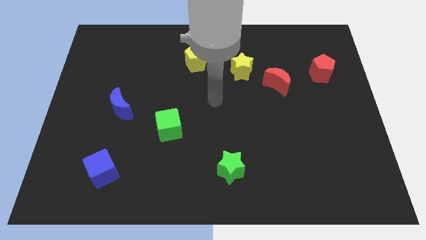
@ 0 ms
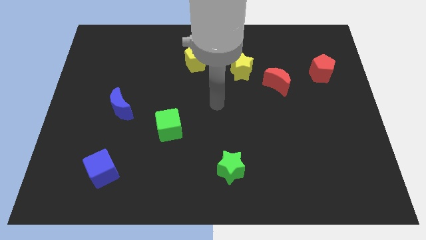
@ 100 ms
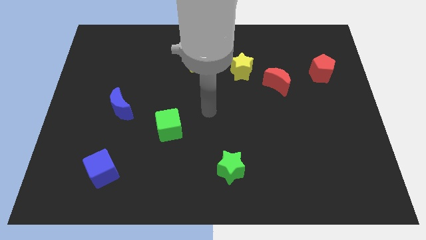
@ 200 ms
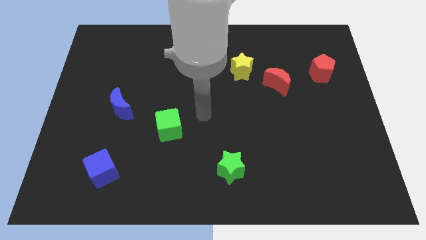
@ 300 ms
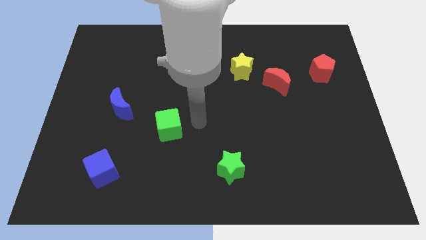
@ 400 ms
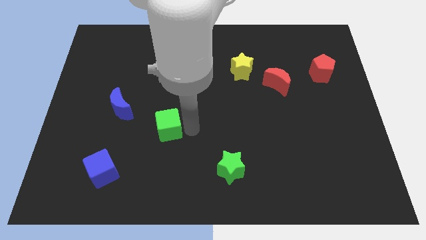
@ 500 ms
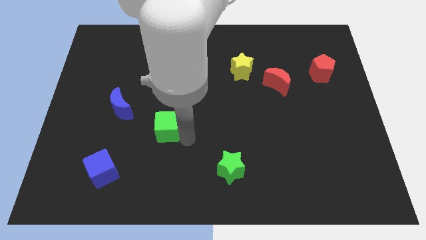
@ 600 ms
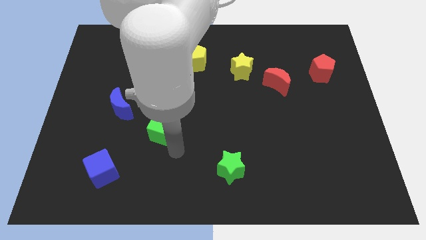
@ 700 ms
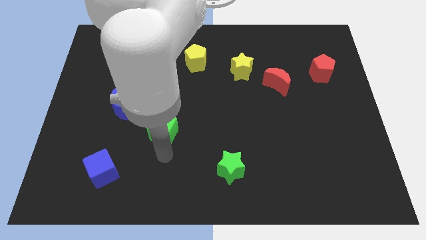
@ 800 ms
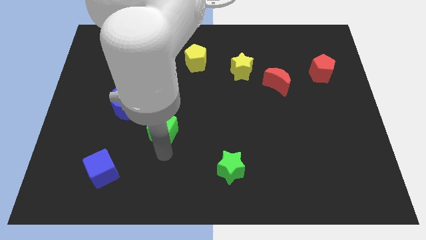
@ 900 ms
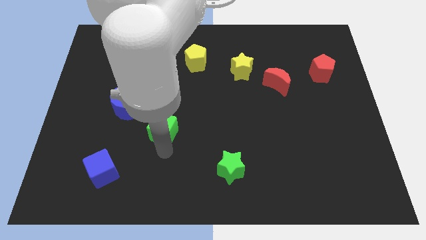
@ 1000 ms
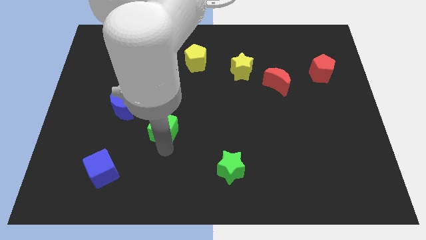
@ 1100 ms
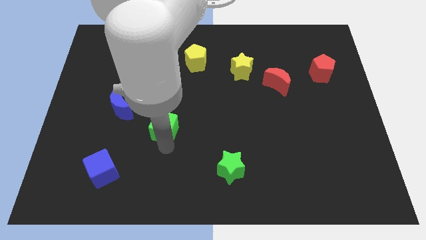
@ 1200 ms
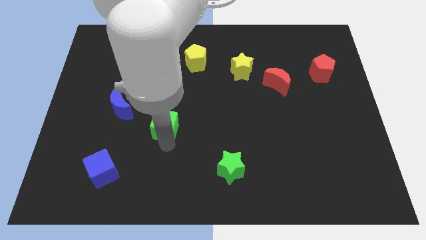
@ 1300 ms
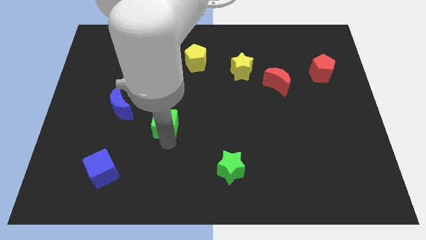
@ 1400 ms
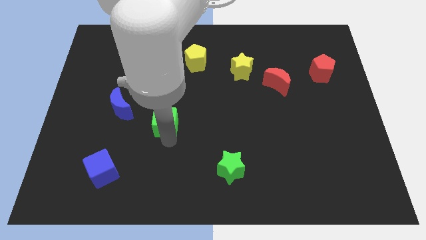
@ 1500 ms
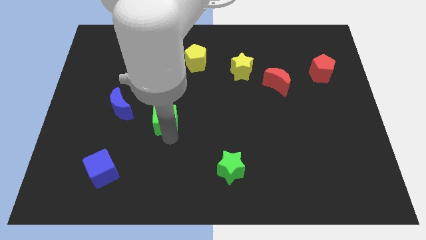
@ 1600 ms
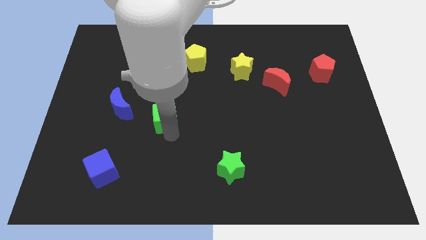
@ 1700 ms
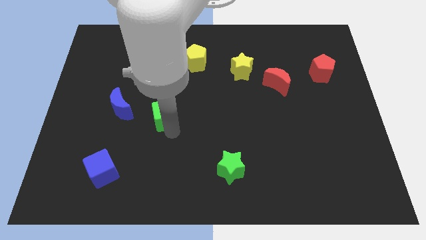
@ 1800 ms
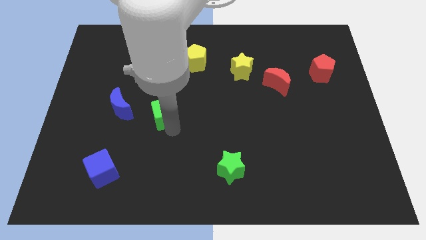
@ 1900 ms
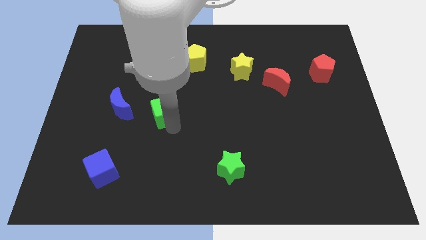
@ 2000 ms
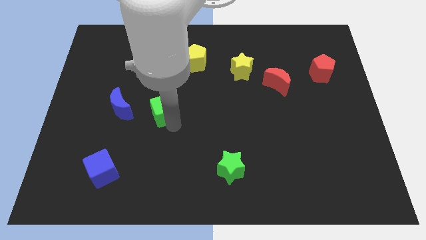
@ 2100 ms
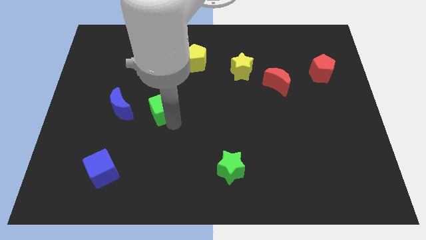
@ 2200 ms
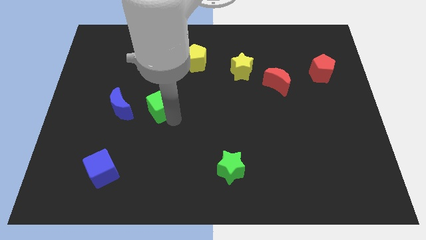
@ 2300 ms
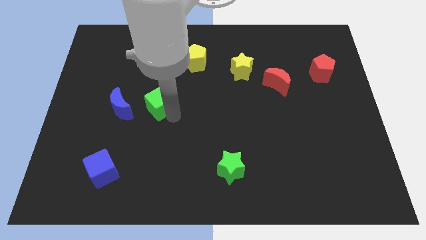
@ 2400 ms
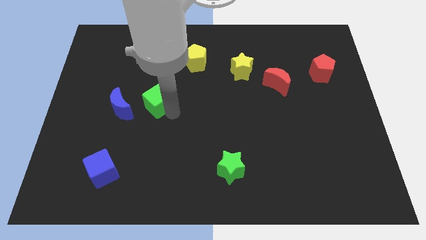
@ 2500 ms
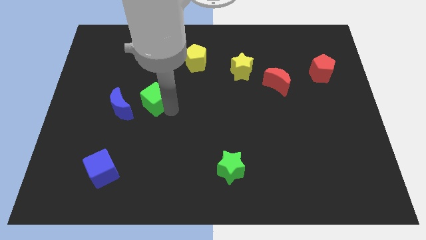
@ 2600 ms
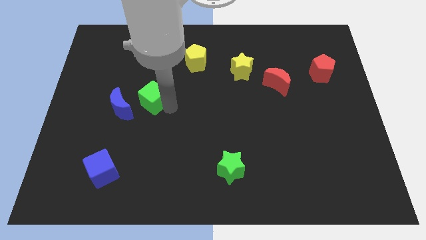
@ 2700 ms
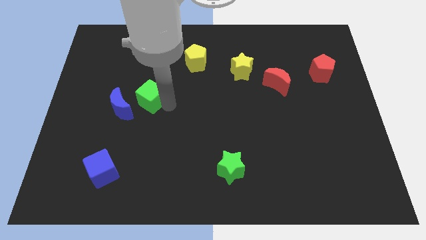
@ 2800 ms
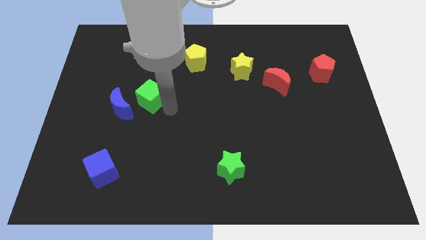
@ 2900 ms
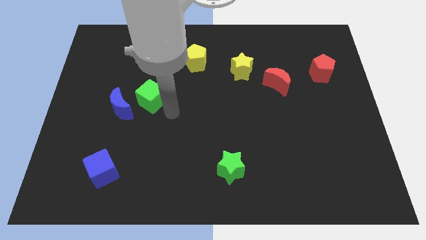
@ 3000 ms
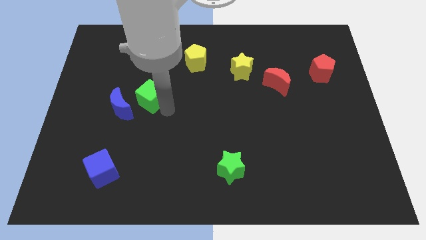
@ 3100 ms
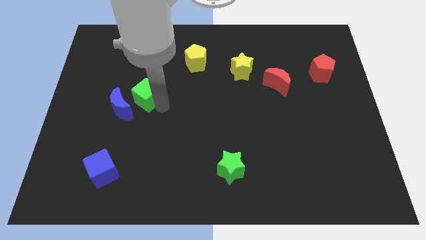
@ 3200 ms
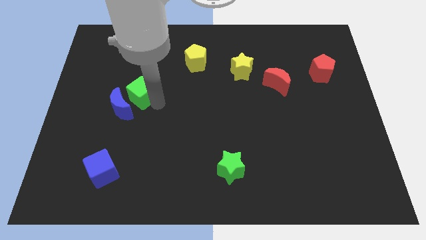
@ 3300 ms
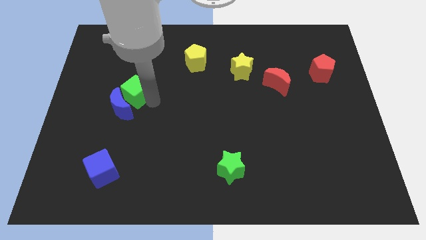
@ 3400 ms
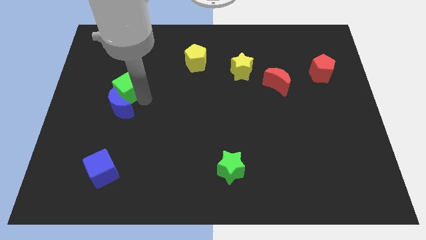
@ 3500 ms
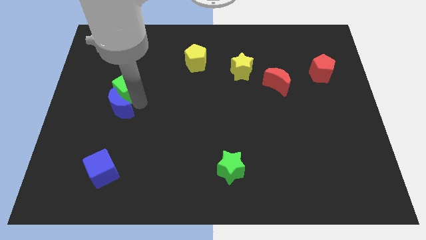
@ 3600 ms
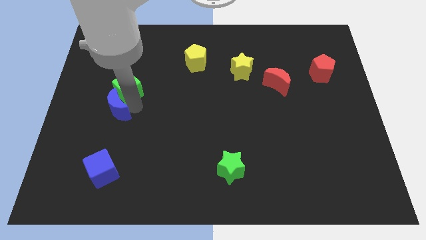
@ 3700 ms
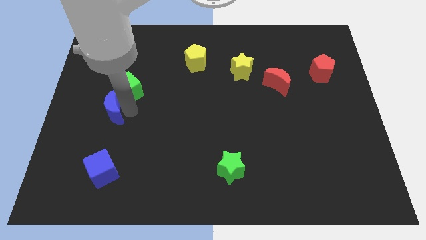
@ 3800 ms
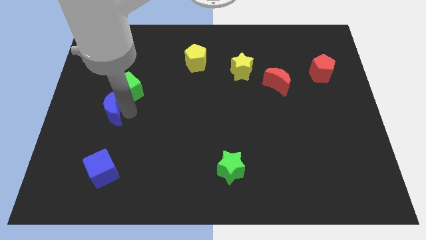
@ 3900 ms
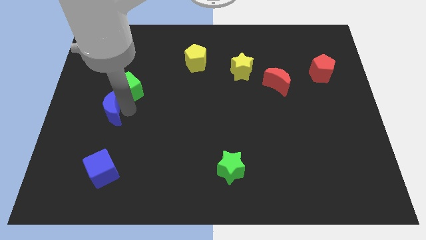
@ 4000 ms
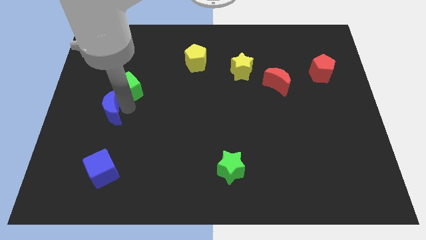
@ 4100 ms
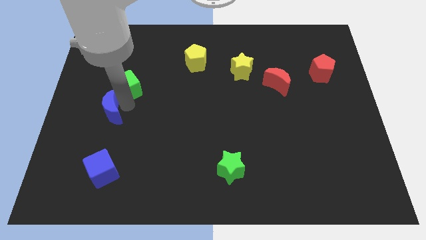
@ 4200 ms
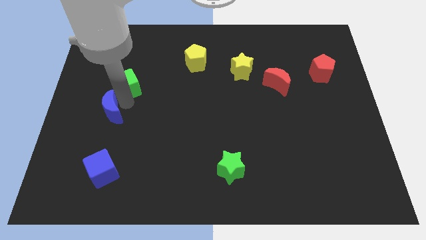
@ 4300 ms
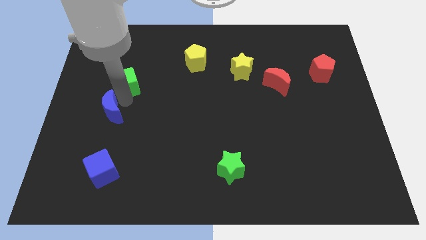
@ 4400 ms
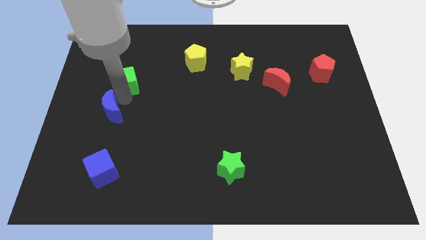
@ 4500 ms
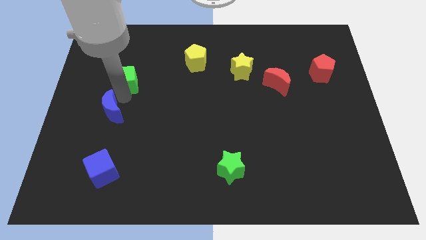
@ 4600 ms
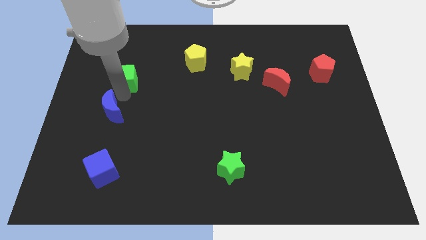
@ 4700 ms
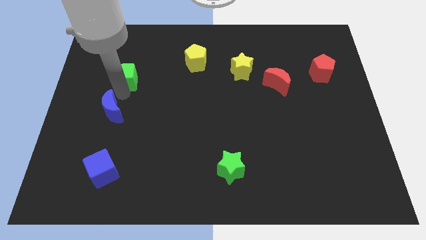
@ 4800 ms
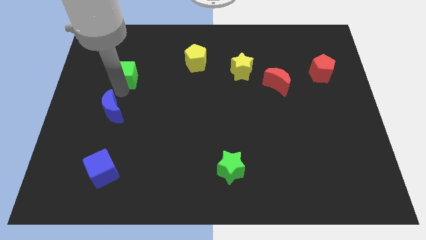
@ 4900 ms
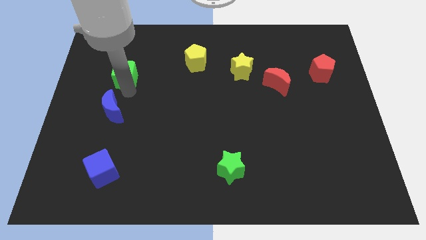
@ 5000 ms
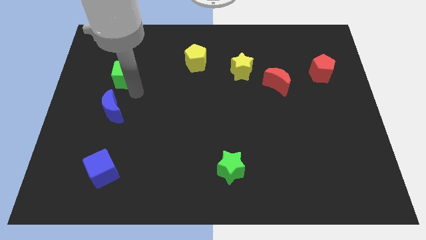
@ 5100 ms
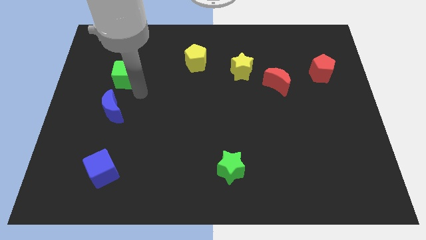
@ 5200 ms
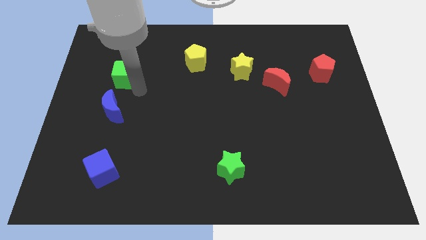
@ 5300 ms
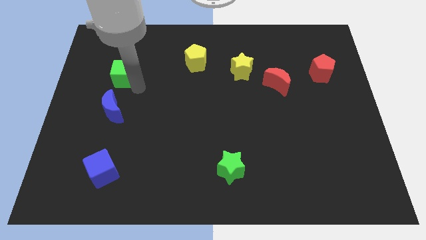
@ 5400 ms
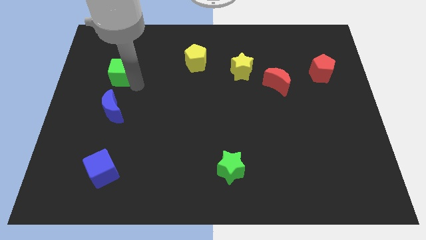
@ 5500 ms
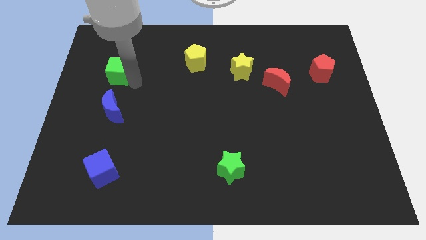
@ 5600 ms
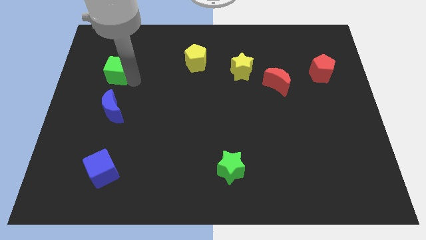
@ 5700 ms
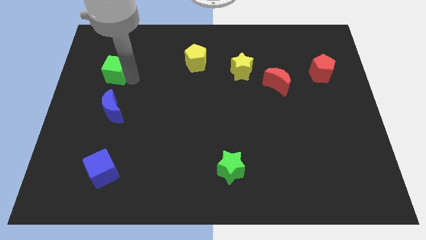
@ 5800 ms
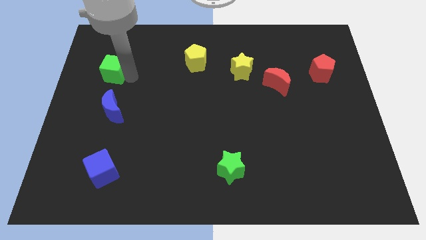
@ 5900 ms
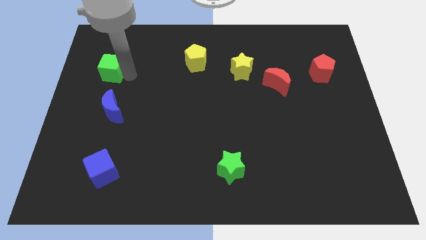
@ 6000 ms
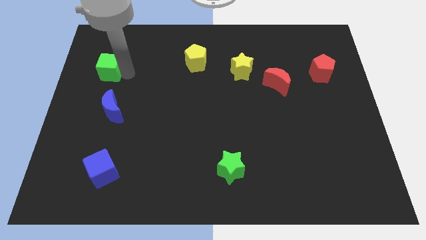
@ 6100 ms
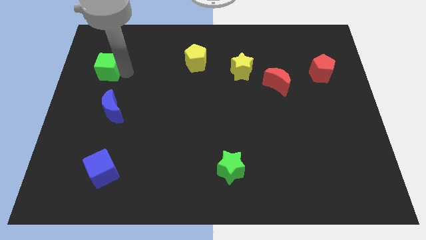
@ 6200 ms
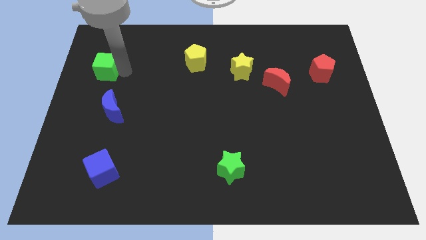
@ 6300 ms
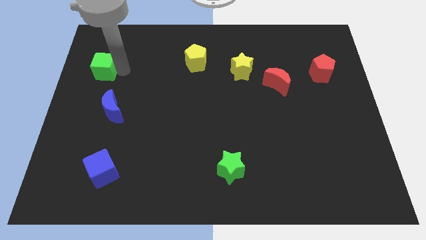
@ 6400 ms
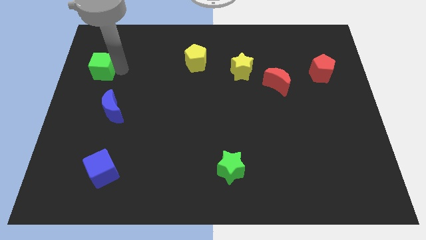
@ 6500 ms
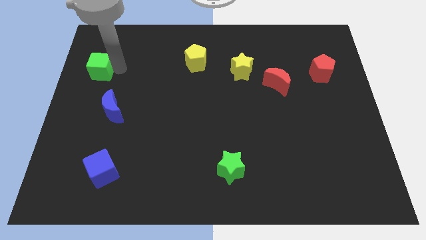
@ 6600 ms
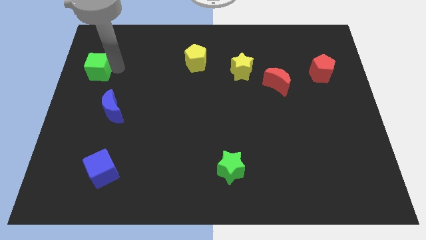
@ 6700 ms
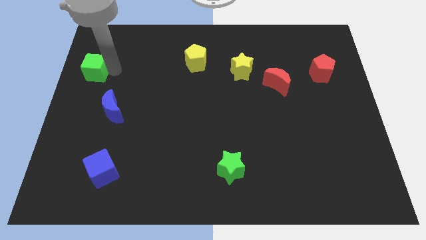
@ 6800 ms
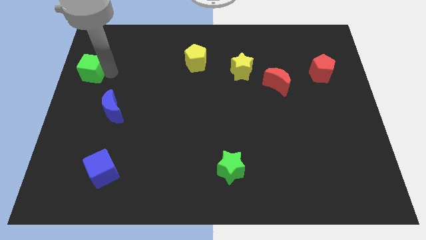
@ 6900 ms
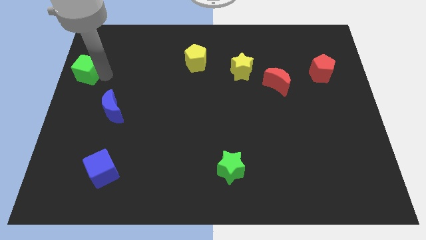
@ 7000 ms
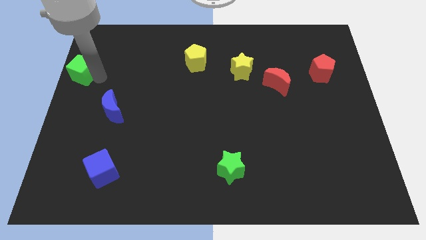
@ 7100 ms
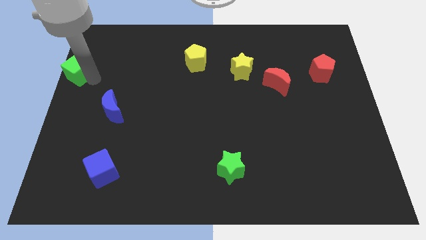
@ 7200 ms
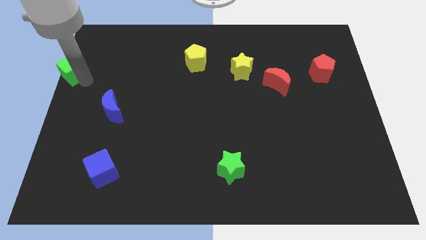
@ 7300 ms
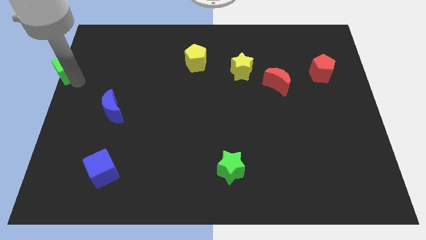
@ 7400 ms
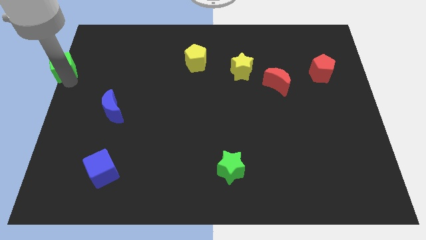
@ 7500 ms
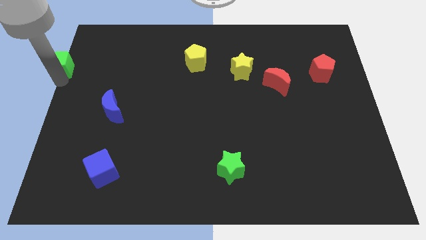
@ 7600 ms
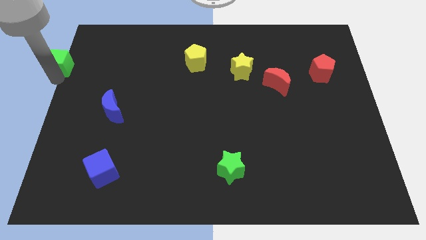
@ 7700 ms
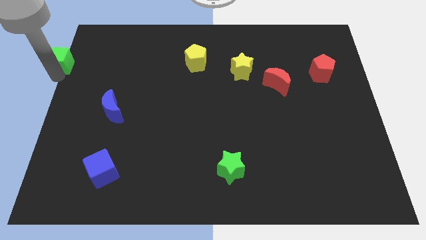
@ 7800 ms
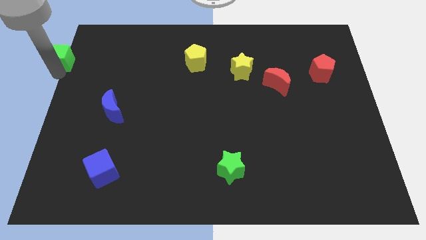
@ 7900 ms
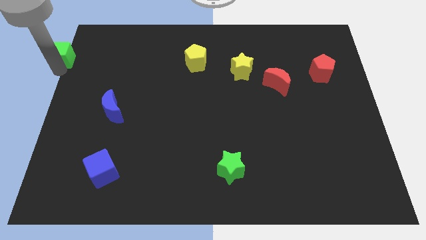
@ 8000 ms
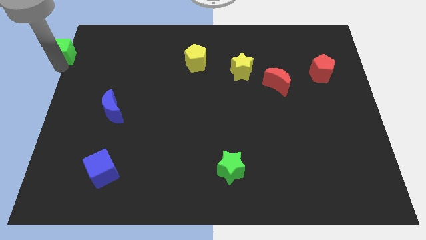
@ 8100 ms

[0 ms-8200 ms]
move the green cube to the top left of the board
